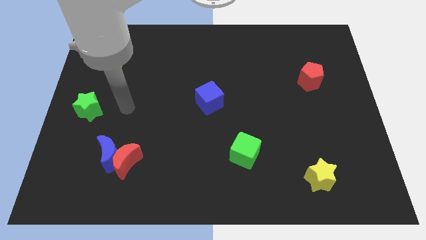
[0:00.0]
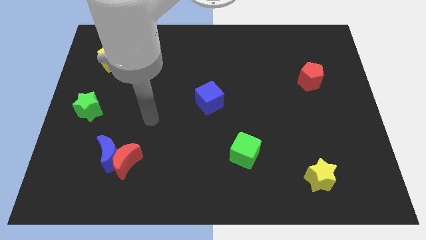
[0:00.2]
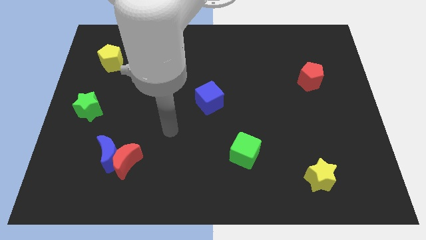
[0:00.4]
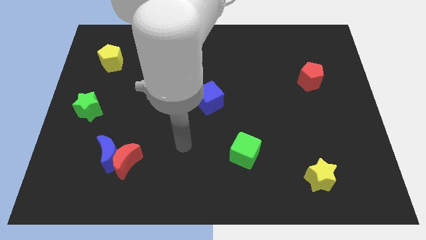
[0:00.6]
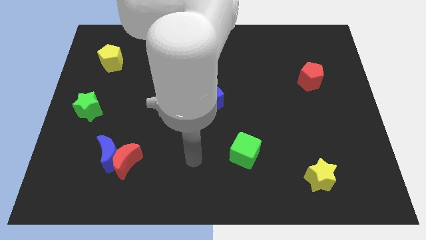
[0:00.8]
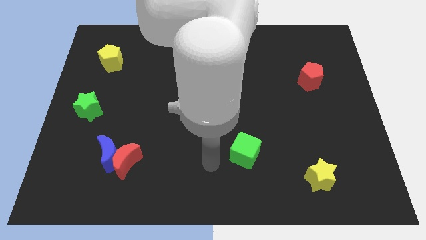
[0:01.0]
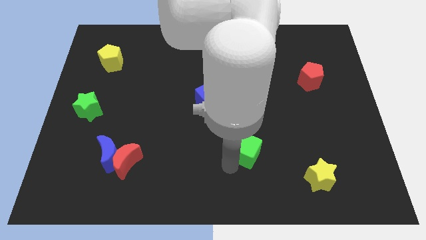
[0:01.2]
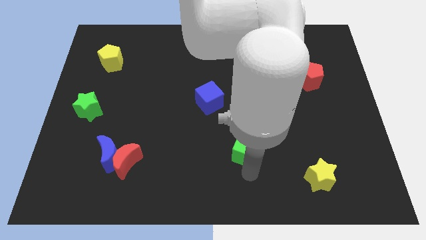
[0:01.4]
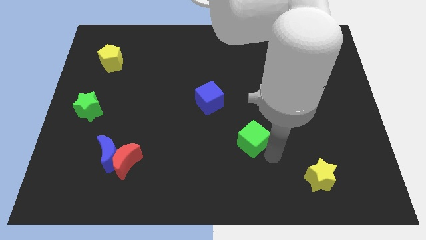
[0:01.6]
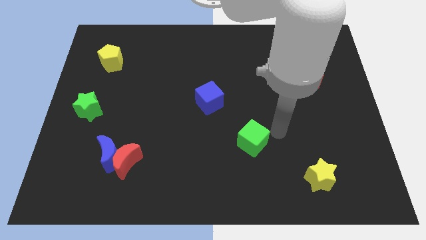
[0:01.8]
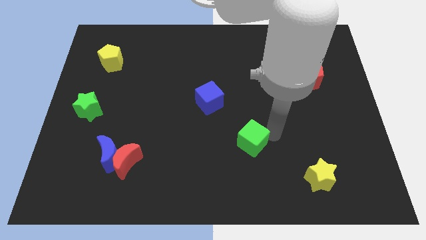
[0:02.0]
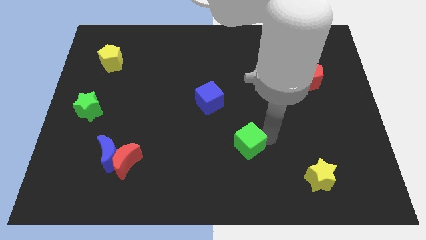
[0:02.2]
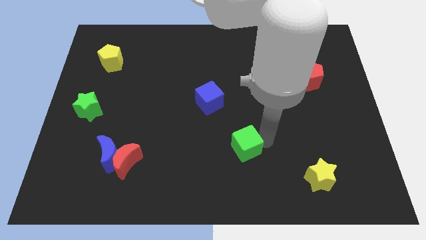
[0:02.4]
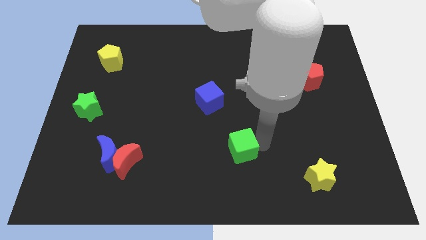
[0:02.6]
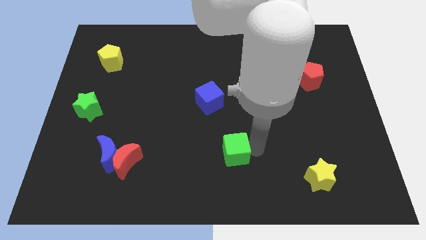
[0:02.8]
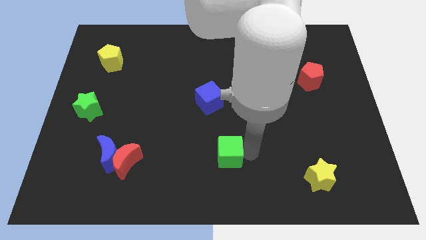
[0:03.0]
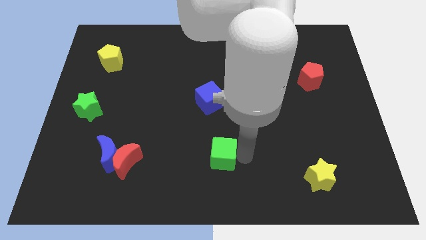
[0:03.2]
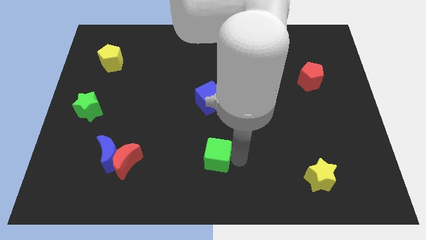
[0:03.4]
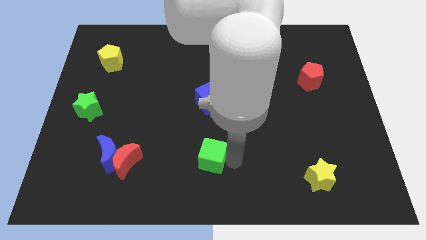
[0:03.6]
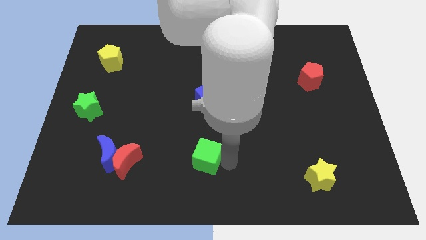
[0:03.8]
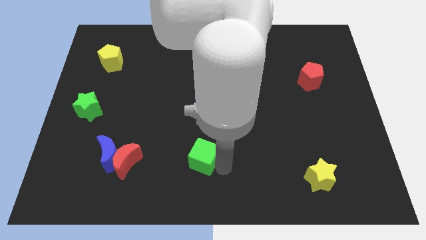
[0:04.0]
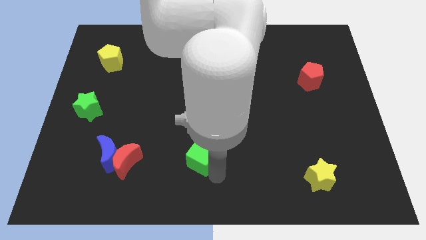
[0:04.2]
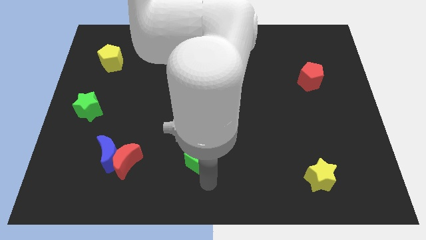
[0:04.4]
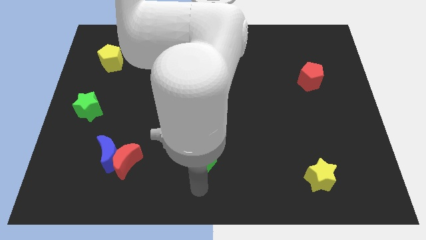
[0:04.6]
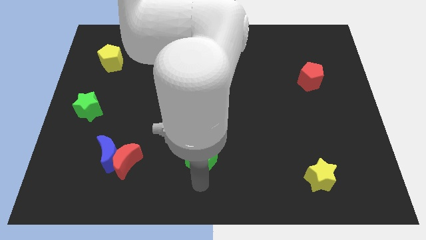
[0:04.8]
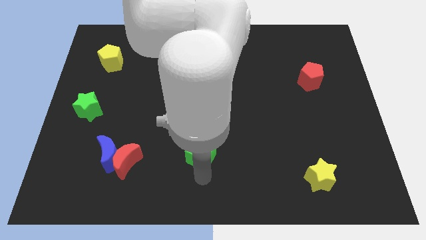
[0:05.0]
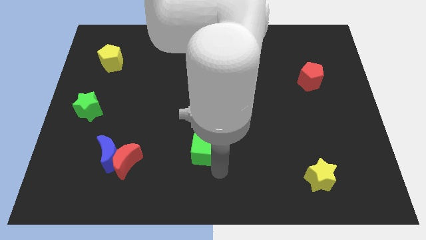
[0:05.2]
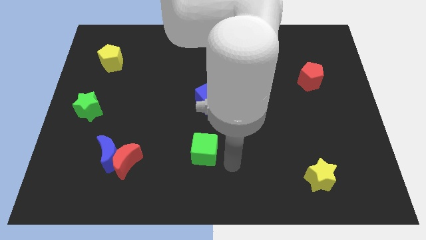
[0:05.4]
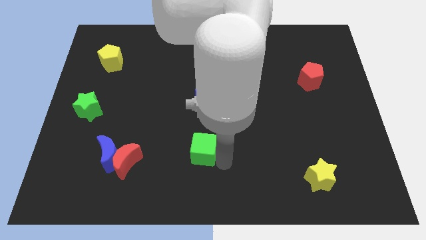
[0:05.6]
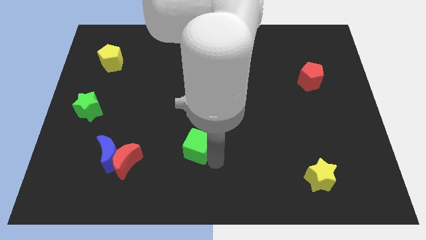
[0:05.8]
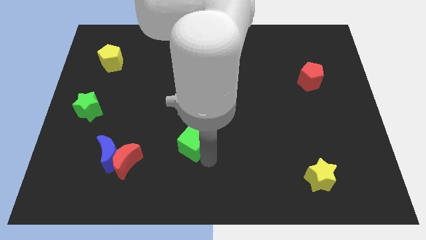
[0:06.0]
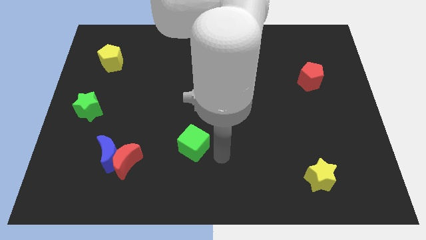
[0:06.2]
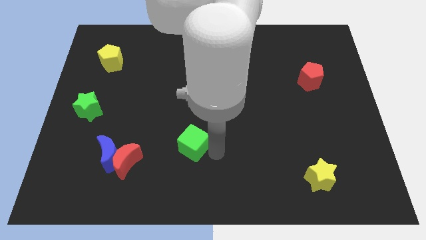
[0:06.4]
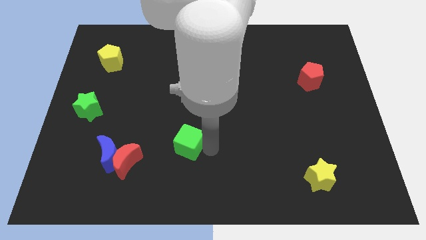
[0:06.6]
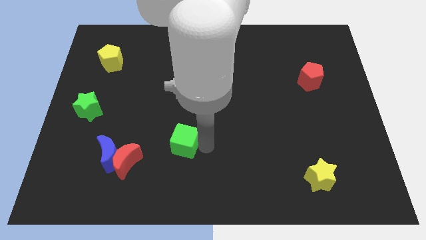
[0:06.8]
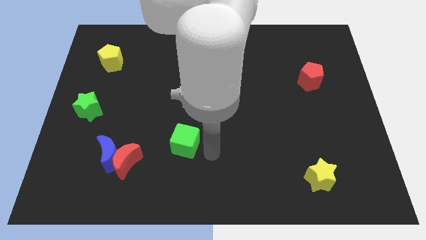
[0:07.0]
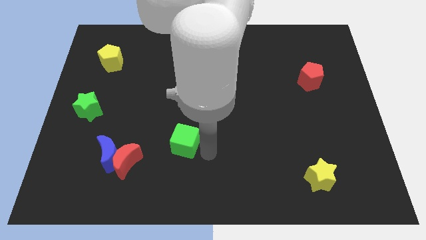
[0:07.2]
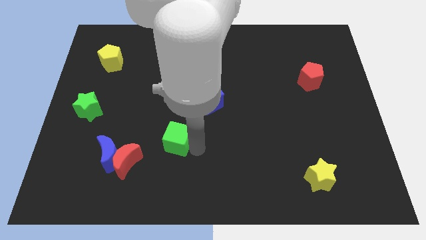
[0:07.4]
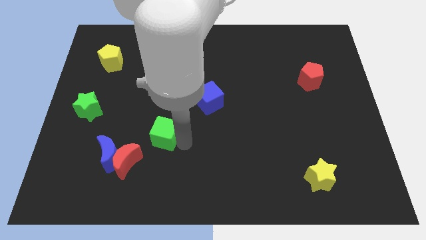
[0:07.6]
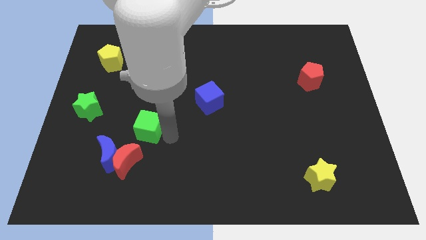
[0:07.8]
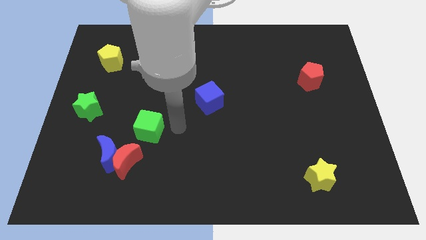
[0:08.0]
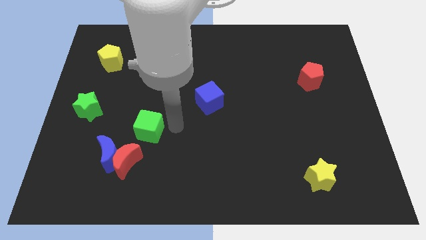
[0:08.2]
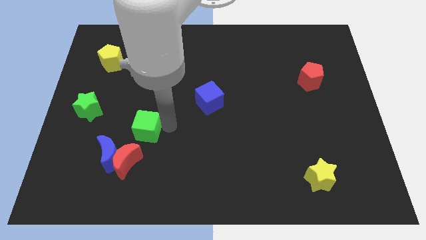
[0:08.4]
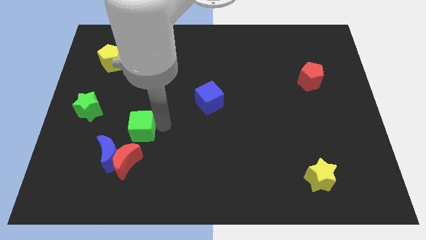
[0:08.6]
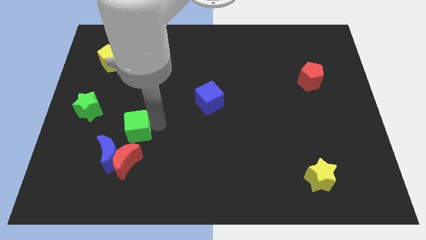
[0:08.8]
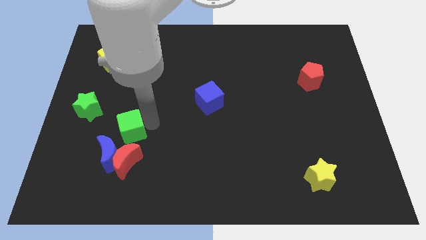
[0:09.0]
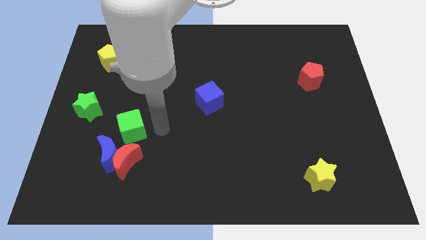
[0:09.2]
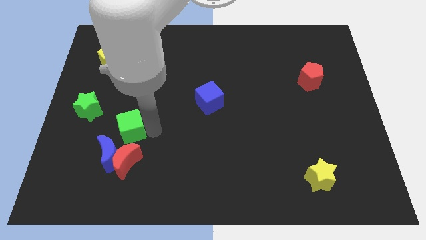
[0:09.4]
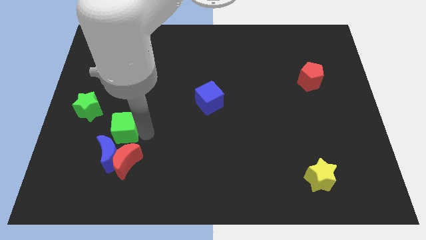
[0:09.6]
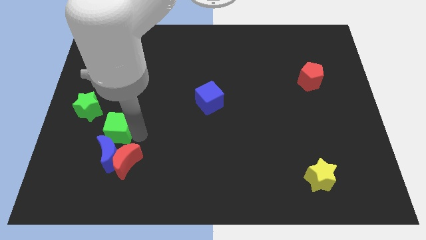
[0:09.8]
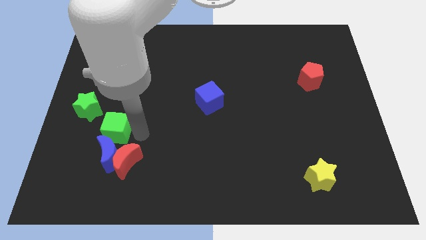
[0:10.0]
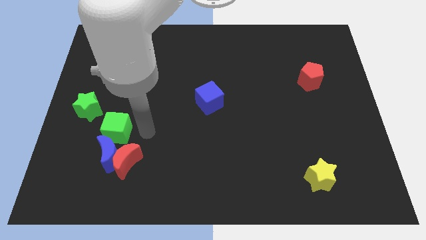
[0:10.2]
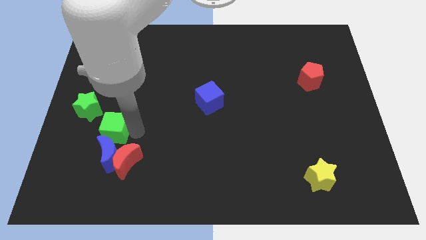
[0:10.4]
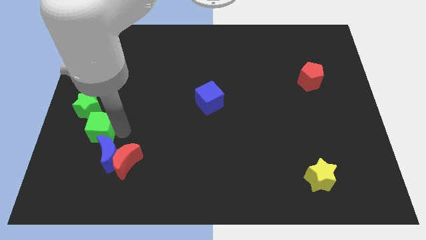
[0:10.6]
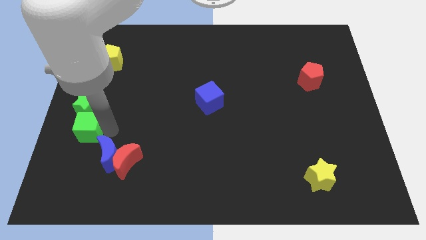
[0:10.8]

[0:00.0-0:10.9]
push the green cube to the left side of the board
